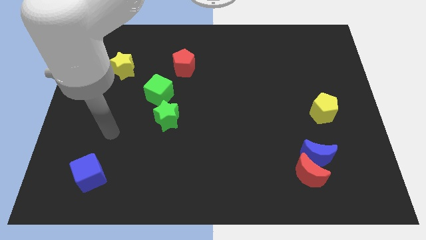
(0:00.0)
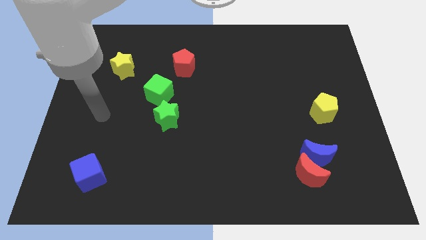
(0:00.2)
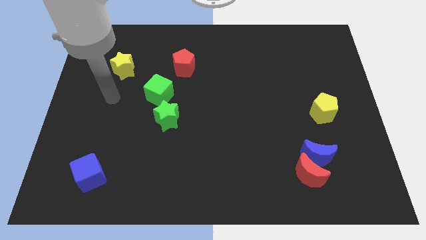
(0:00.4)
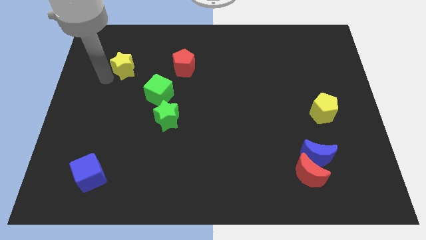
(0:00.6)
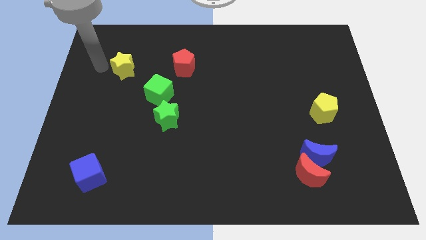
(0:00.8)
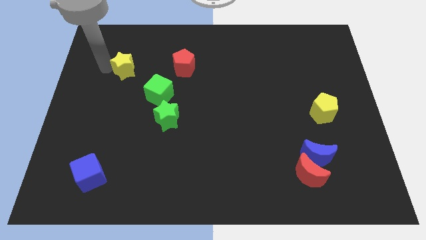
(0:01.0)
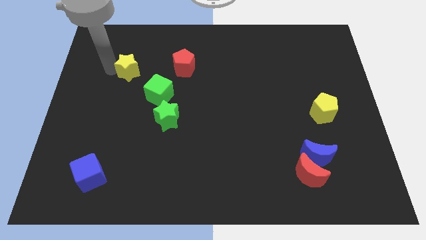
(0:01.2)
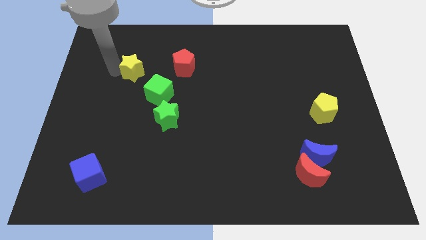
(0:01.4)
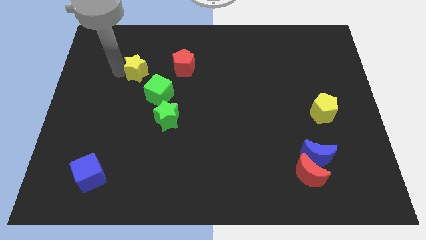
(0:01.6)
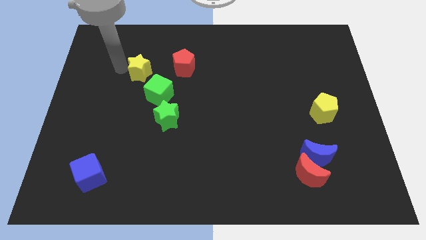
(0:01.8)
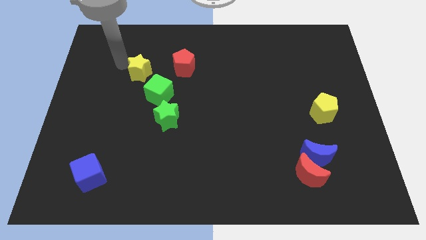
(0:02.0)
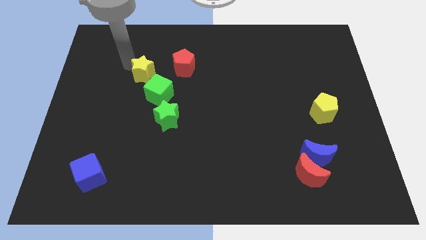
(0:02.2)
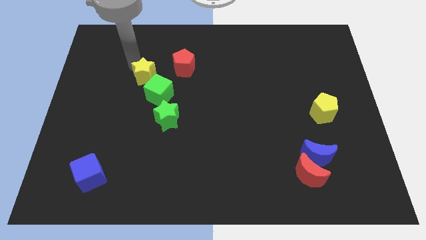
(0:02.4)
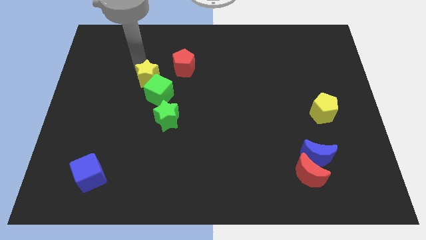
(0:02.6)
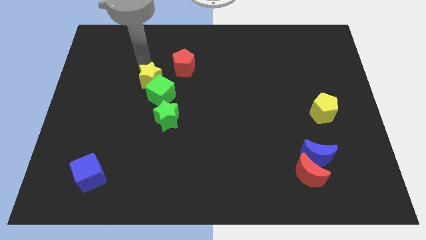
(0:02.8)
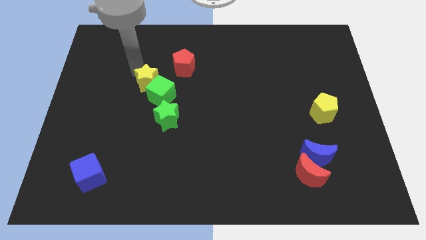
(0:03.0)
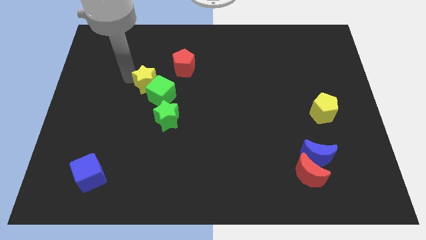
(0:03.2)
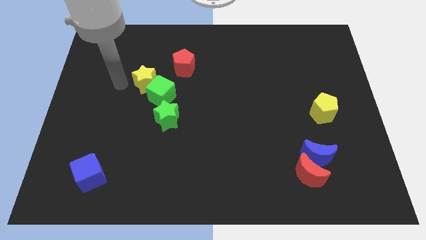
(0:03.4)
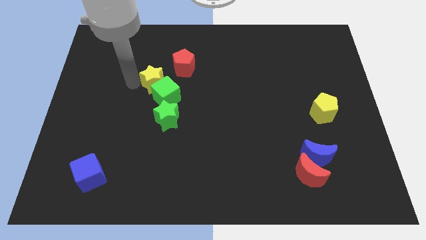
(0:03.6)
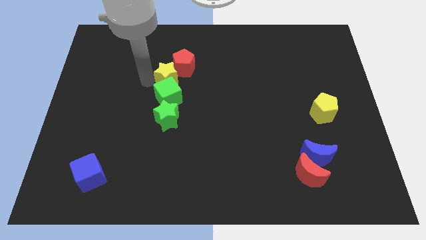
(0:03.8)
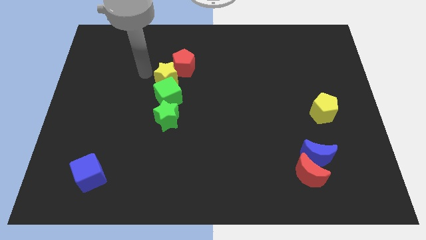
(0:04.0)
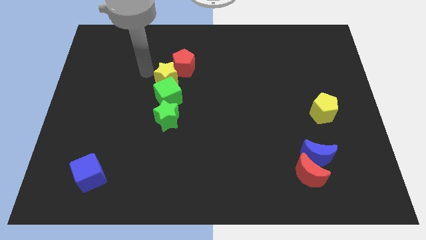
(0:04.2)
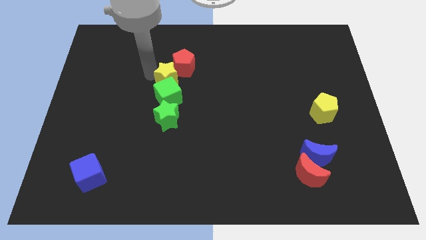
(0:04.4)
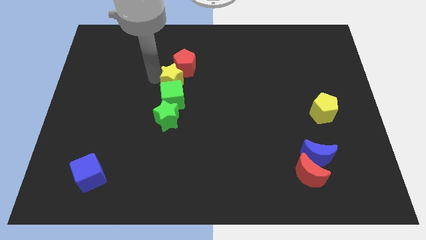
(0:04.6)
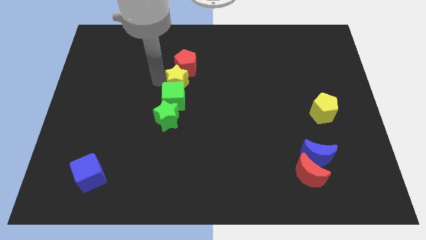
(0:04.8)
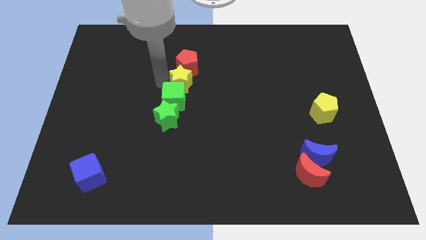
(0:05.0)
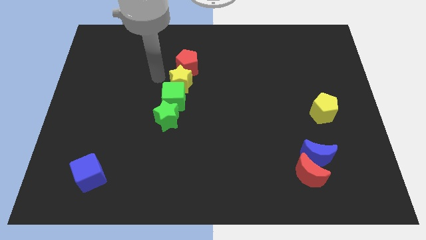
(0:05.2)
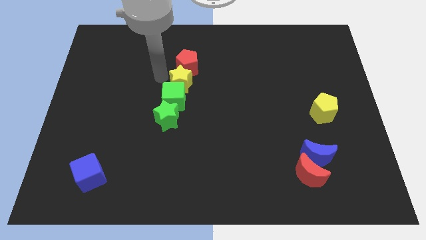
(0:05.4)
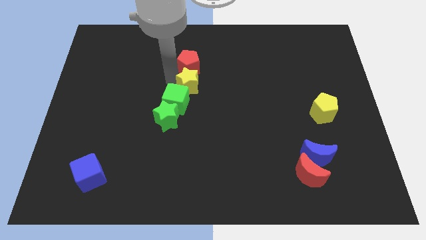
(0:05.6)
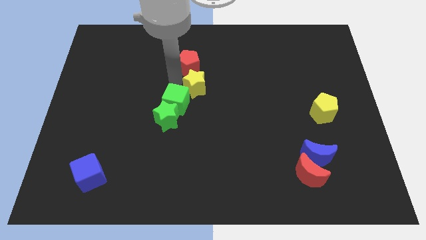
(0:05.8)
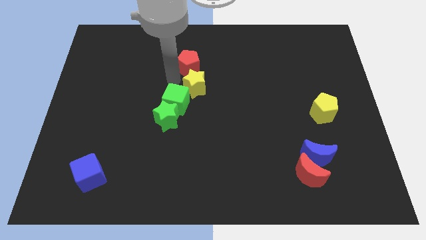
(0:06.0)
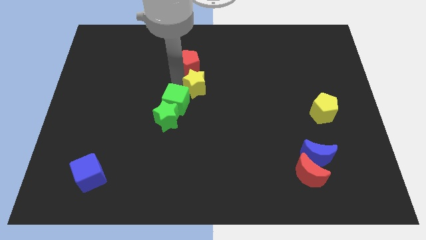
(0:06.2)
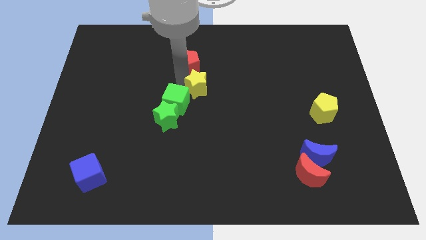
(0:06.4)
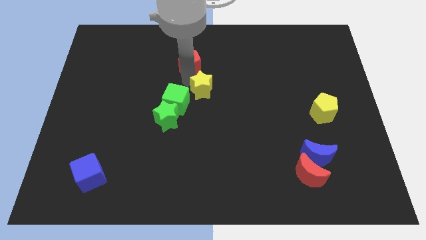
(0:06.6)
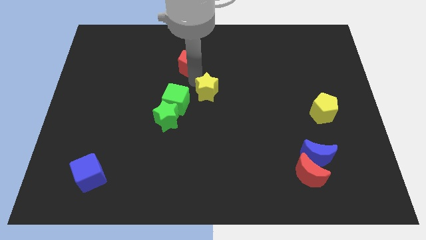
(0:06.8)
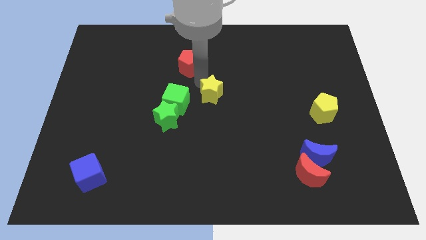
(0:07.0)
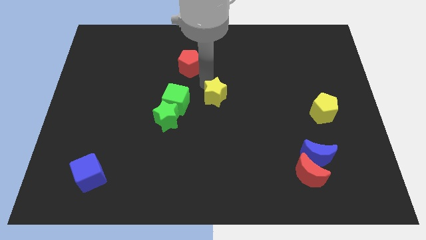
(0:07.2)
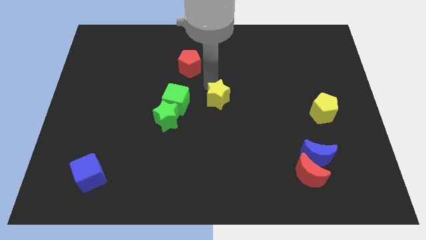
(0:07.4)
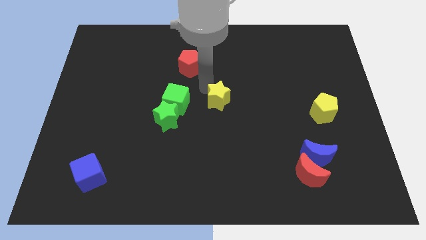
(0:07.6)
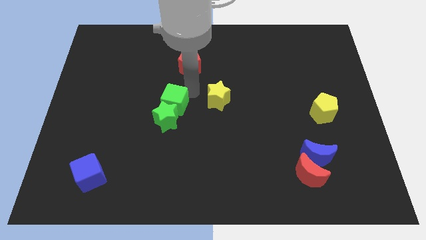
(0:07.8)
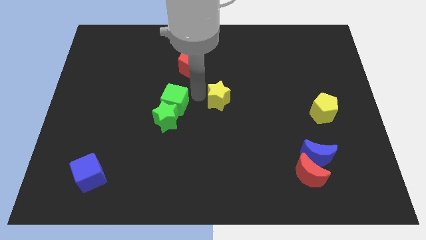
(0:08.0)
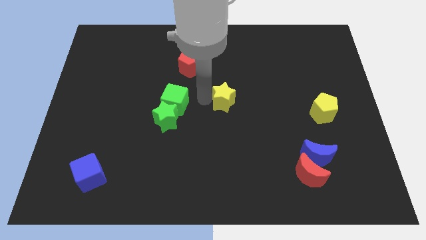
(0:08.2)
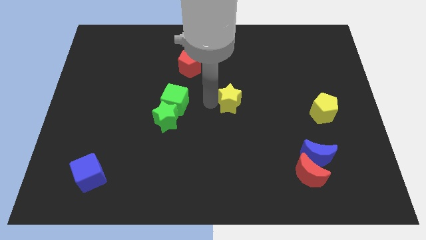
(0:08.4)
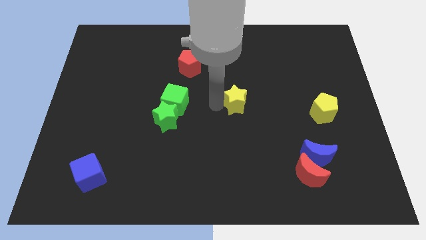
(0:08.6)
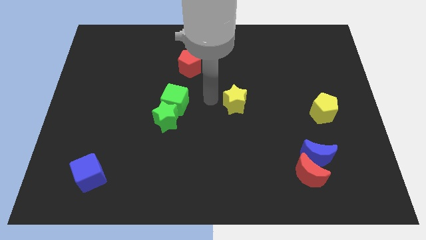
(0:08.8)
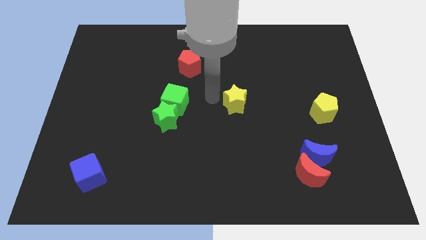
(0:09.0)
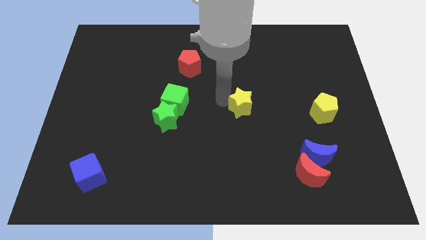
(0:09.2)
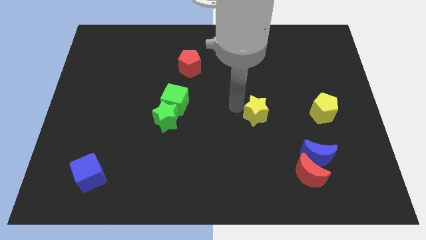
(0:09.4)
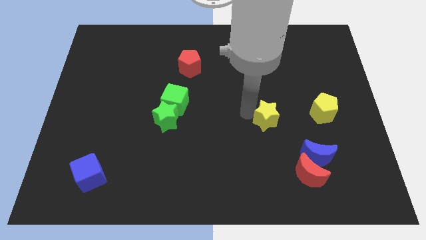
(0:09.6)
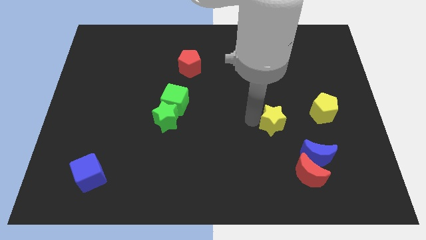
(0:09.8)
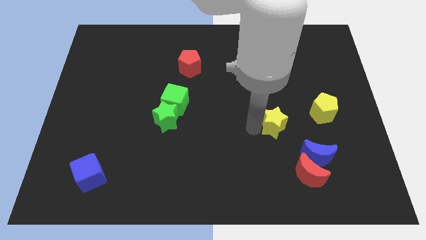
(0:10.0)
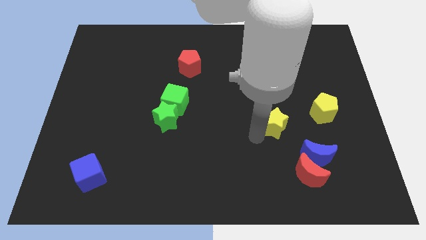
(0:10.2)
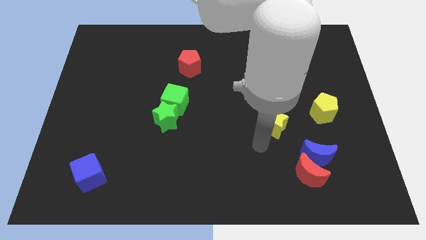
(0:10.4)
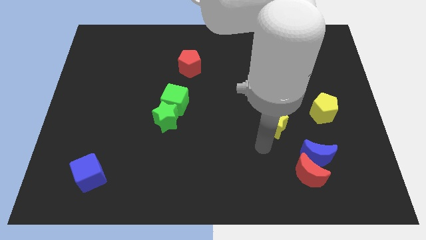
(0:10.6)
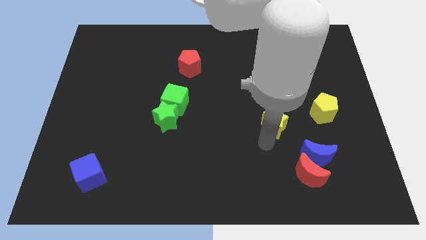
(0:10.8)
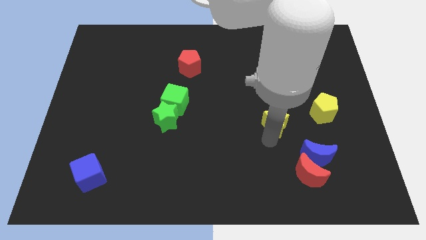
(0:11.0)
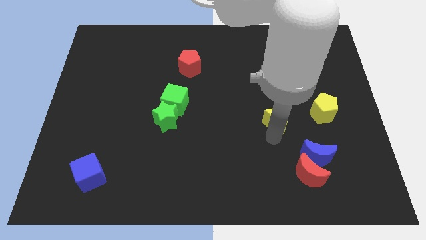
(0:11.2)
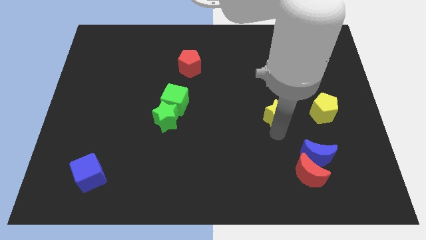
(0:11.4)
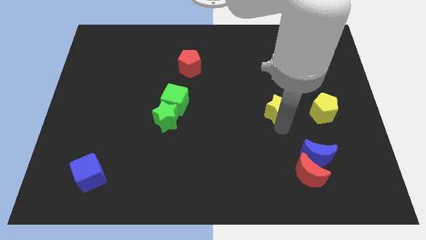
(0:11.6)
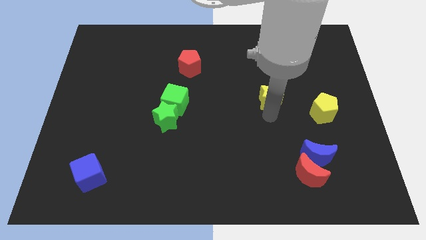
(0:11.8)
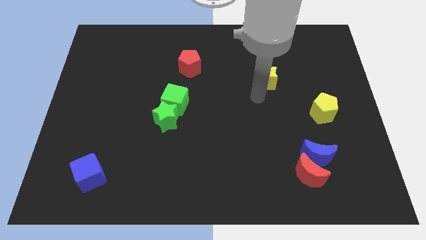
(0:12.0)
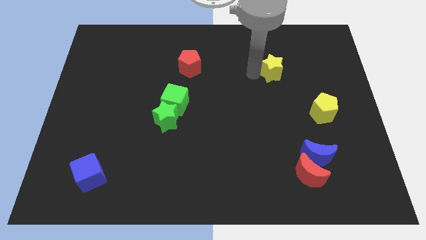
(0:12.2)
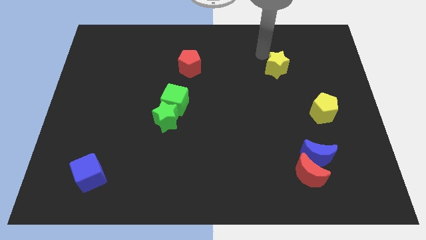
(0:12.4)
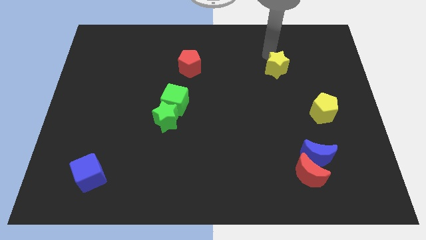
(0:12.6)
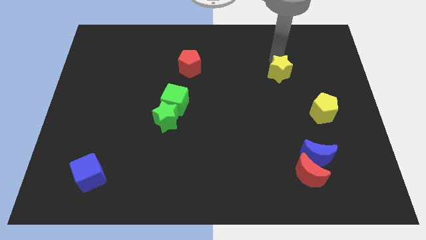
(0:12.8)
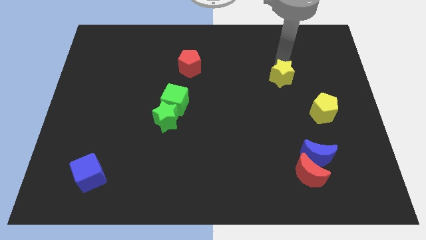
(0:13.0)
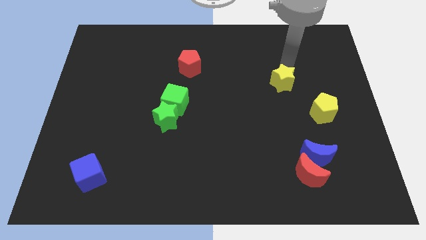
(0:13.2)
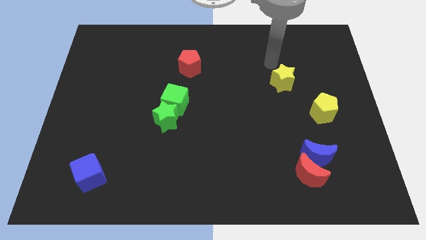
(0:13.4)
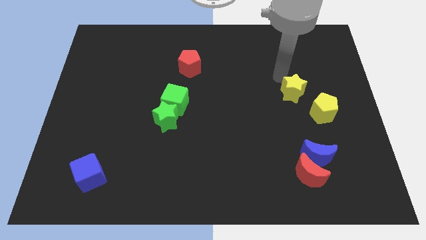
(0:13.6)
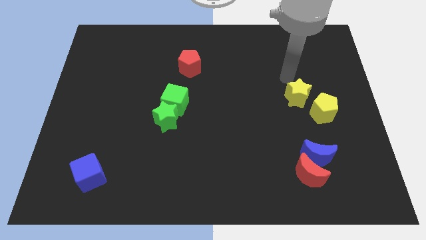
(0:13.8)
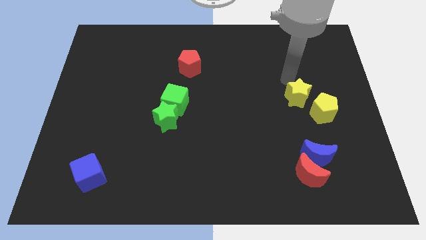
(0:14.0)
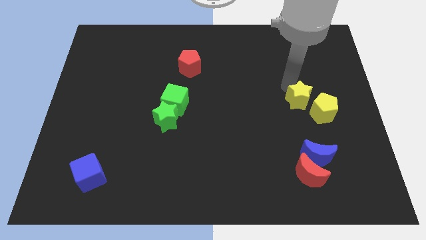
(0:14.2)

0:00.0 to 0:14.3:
move the yellow star above the blue moon
